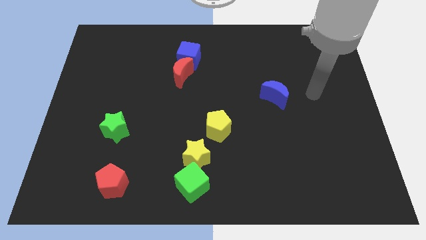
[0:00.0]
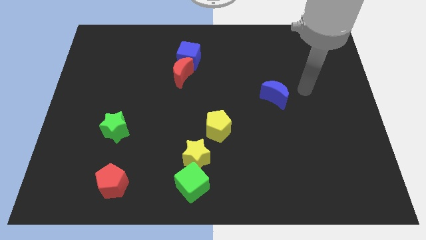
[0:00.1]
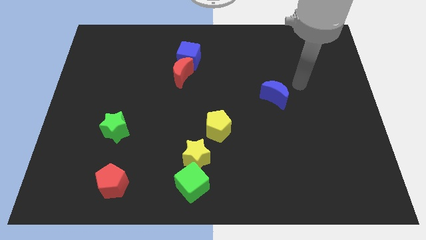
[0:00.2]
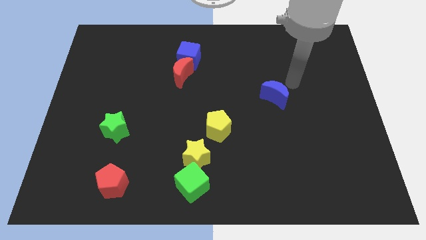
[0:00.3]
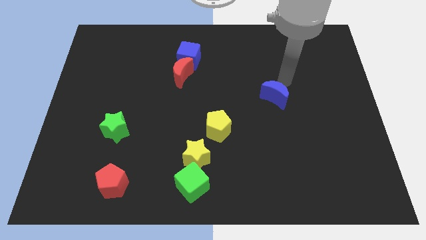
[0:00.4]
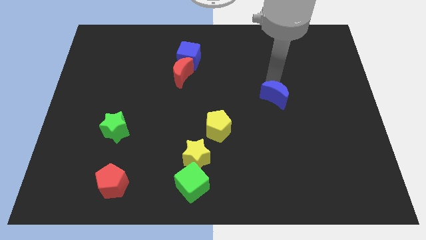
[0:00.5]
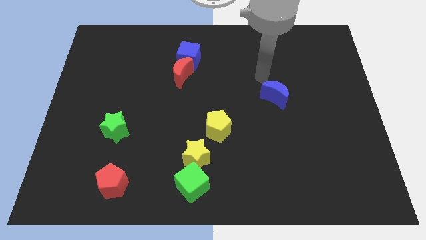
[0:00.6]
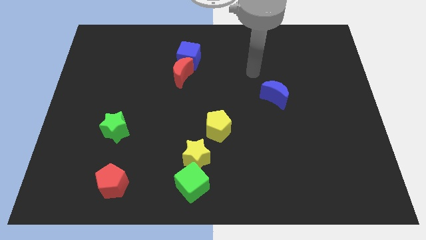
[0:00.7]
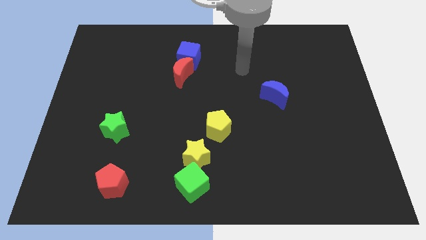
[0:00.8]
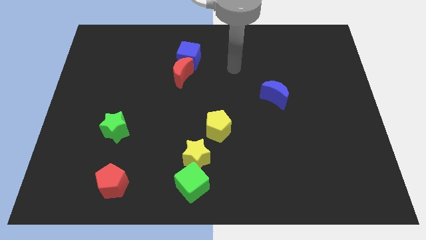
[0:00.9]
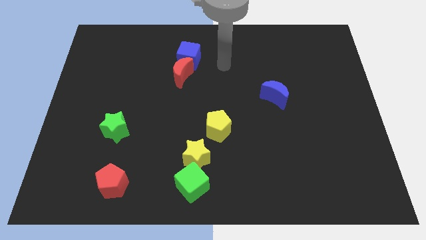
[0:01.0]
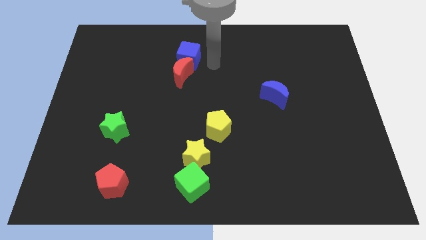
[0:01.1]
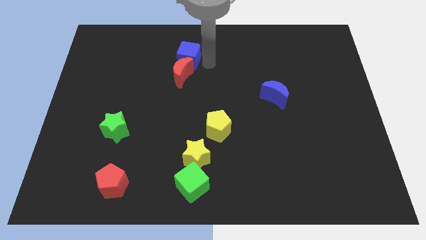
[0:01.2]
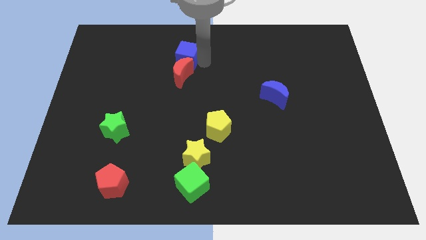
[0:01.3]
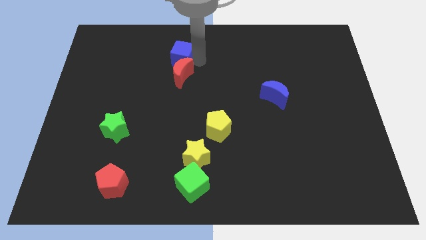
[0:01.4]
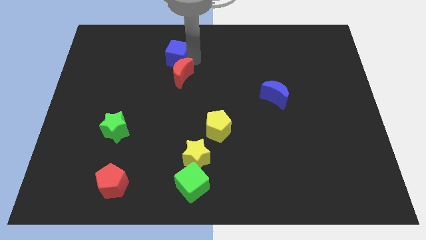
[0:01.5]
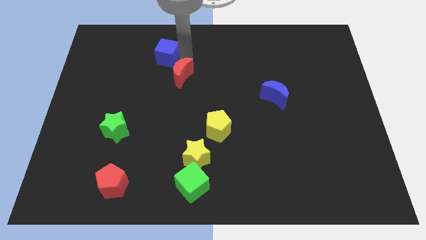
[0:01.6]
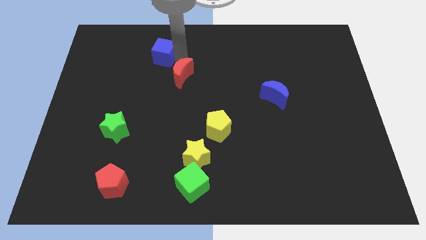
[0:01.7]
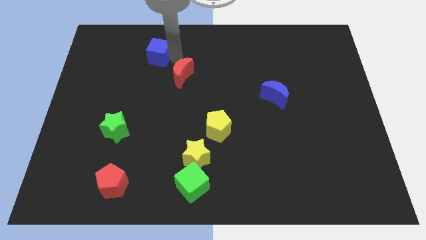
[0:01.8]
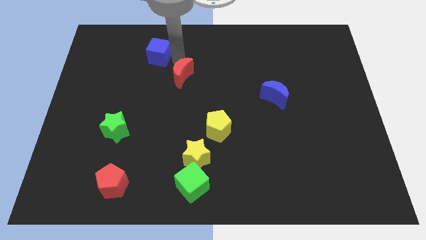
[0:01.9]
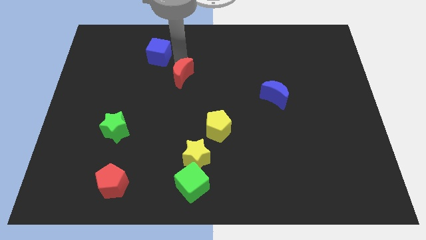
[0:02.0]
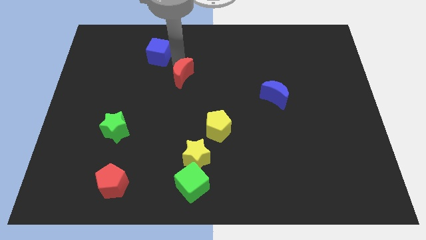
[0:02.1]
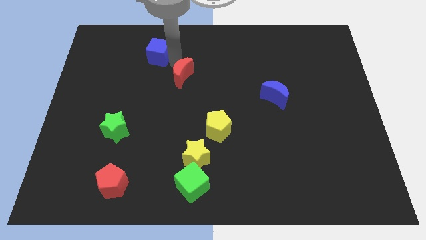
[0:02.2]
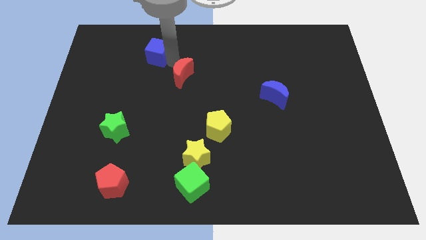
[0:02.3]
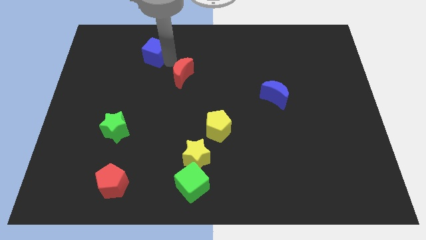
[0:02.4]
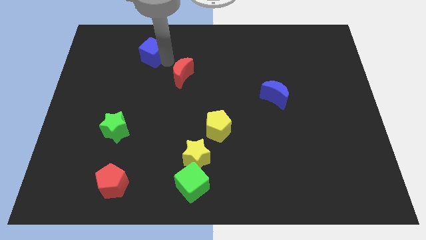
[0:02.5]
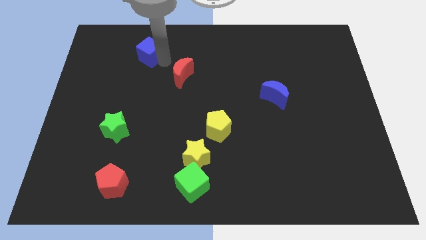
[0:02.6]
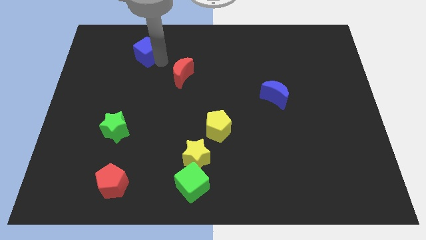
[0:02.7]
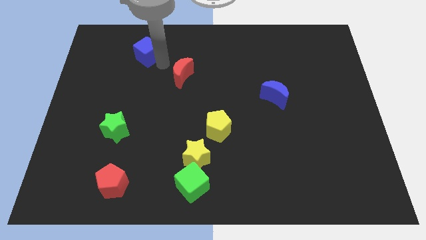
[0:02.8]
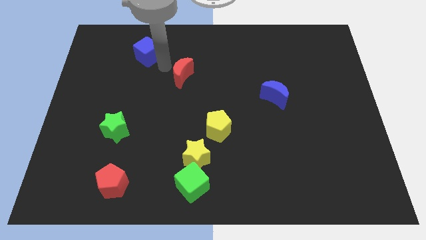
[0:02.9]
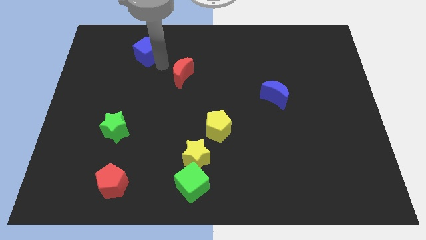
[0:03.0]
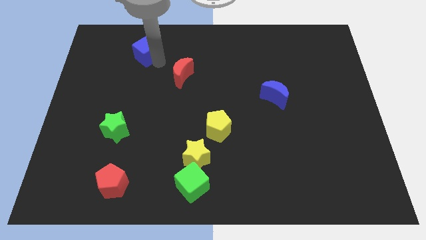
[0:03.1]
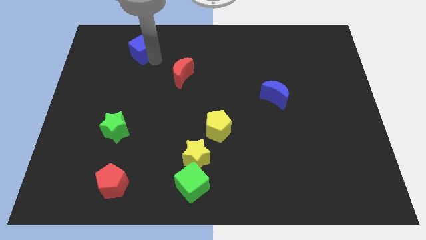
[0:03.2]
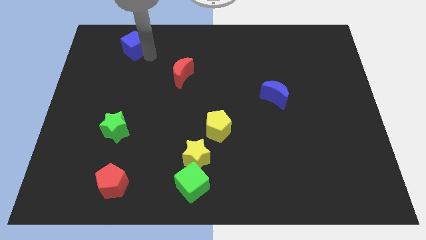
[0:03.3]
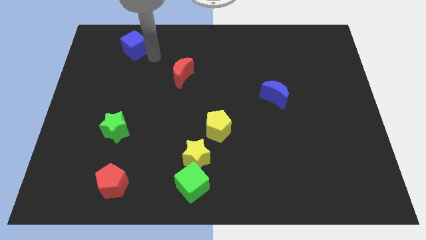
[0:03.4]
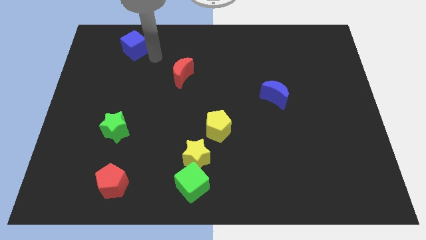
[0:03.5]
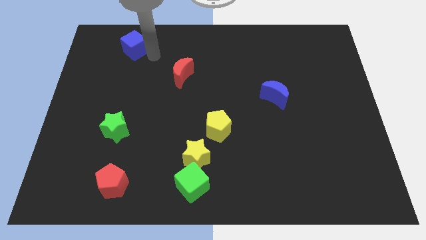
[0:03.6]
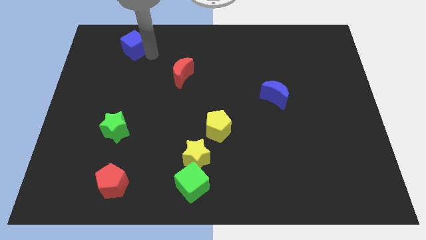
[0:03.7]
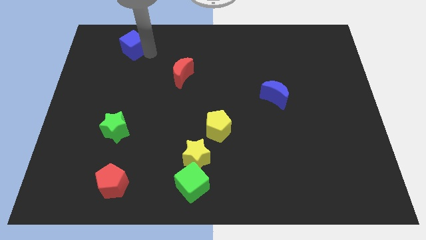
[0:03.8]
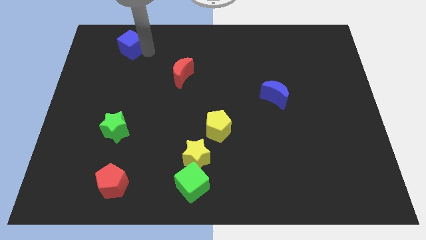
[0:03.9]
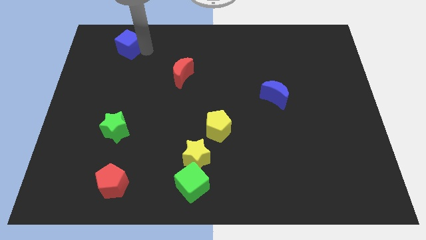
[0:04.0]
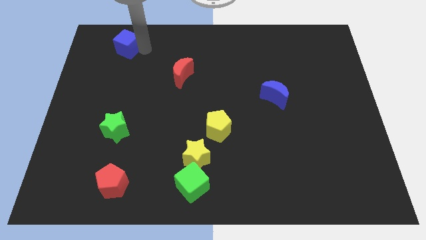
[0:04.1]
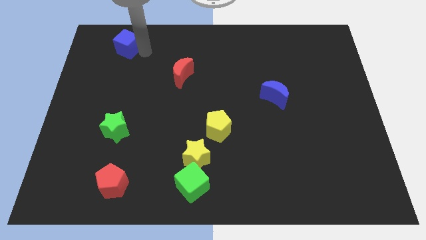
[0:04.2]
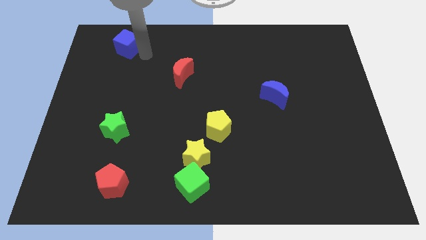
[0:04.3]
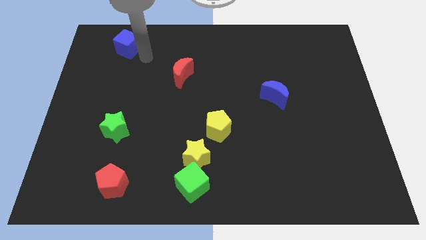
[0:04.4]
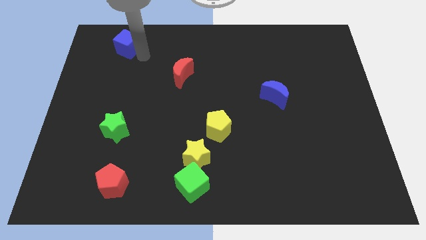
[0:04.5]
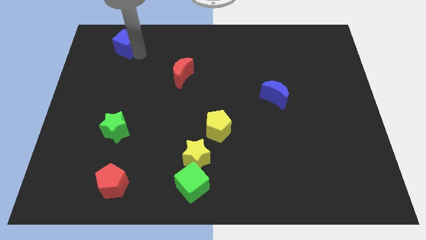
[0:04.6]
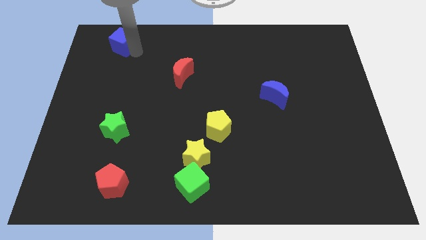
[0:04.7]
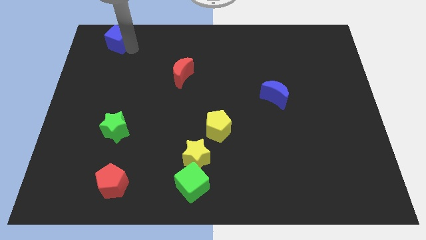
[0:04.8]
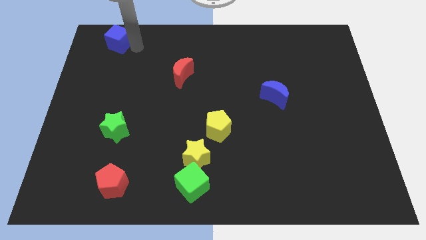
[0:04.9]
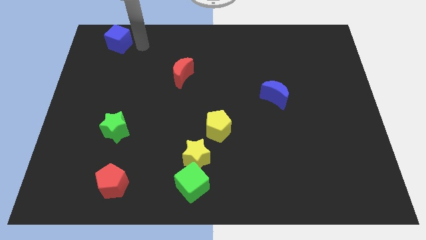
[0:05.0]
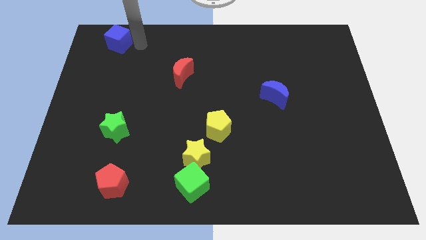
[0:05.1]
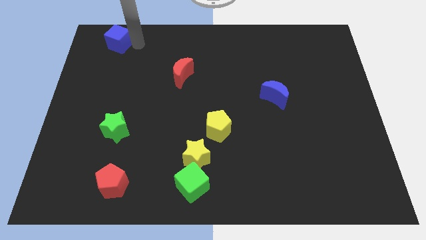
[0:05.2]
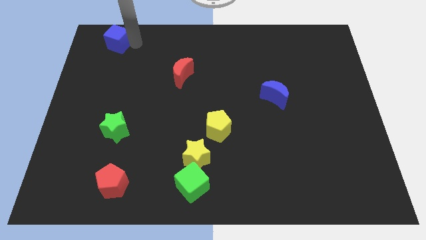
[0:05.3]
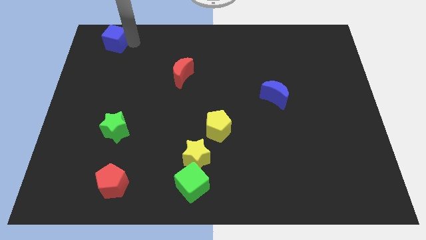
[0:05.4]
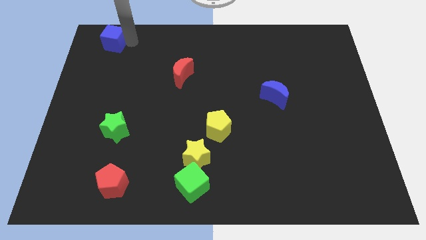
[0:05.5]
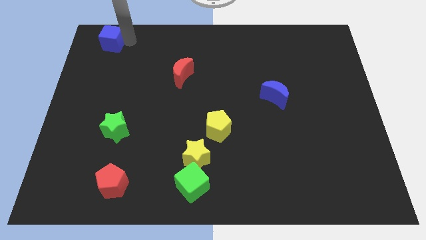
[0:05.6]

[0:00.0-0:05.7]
move the blue cube to the top left
